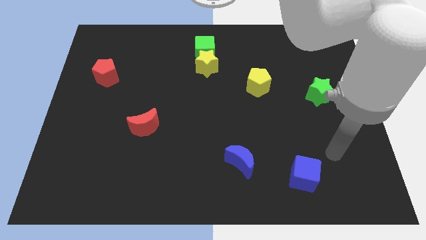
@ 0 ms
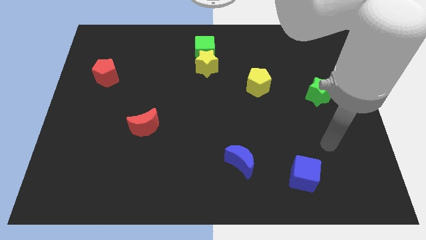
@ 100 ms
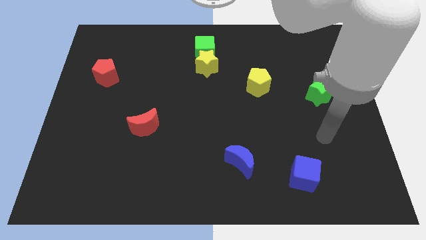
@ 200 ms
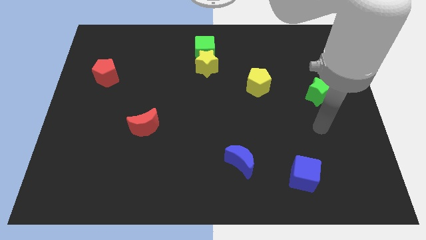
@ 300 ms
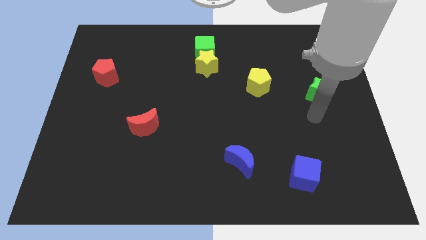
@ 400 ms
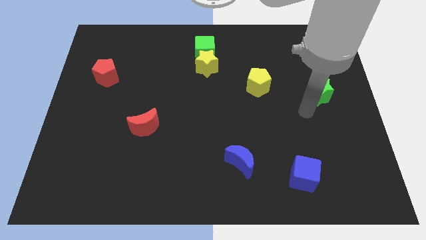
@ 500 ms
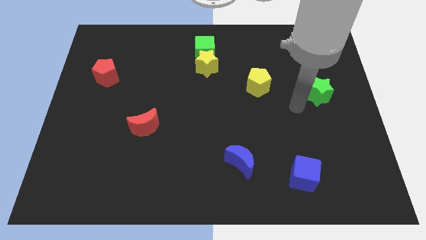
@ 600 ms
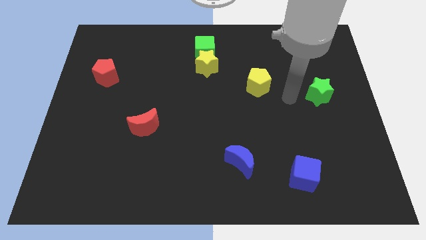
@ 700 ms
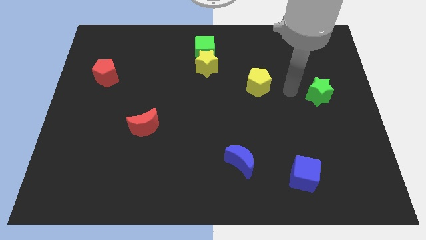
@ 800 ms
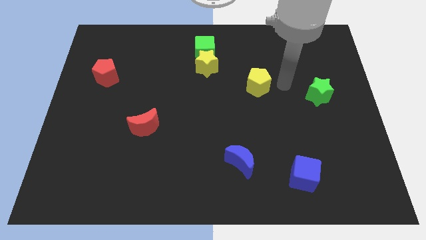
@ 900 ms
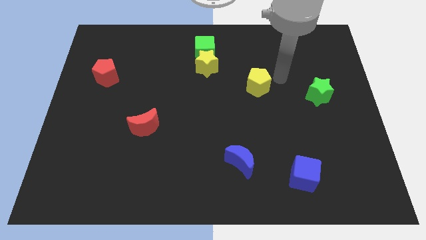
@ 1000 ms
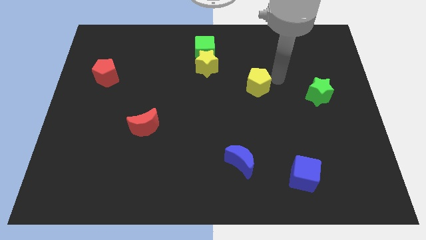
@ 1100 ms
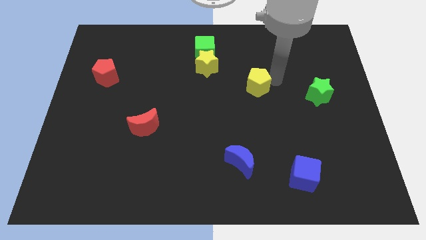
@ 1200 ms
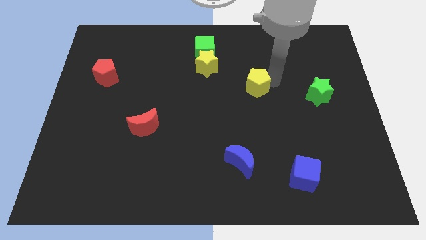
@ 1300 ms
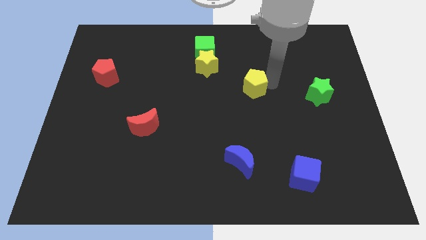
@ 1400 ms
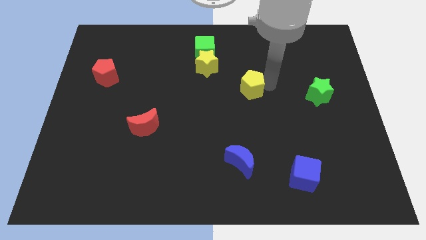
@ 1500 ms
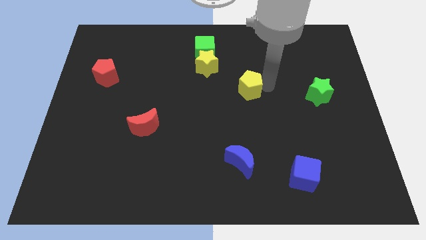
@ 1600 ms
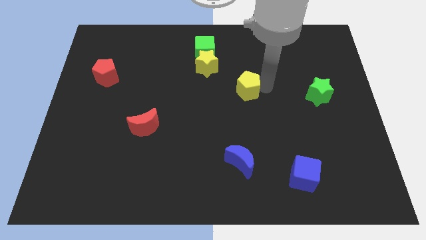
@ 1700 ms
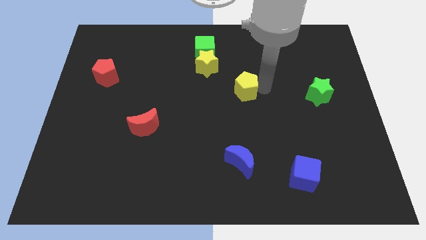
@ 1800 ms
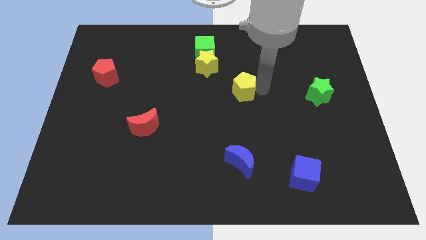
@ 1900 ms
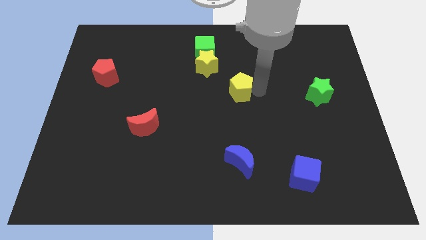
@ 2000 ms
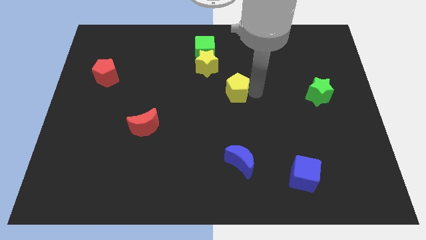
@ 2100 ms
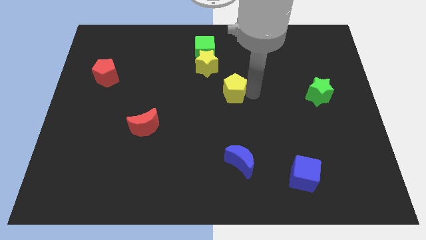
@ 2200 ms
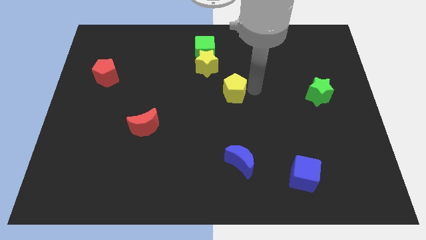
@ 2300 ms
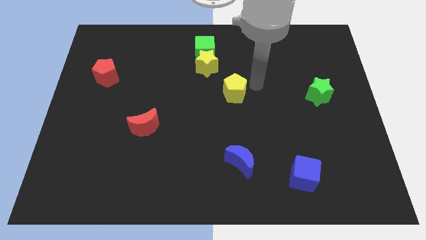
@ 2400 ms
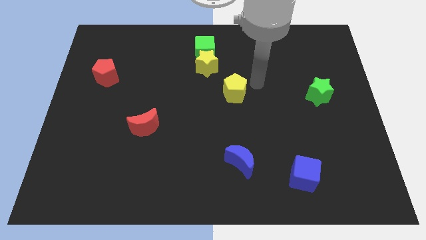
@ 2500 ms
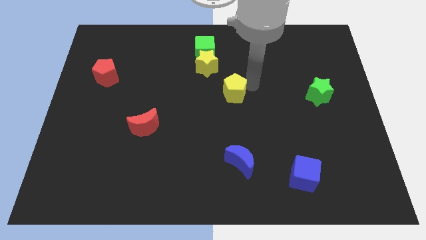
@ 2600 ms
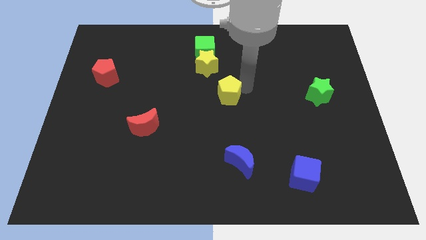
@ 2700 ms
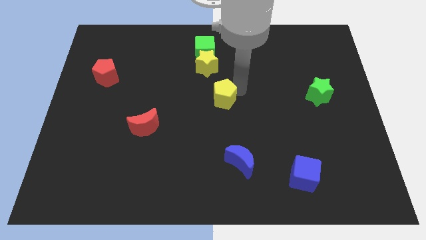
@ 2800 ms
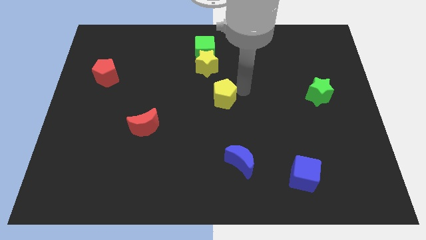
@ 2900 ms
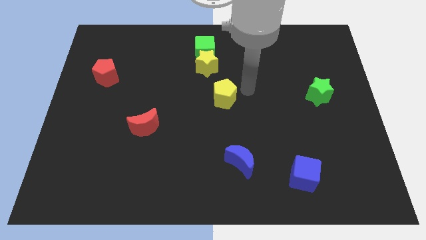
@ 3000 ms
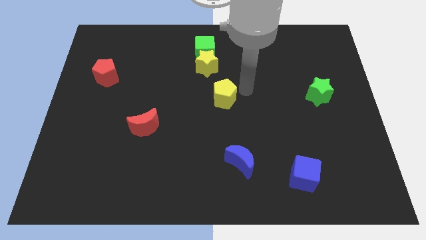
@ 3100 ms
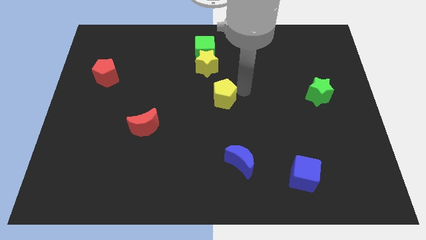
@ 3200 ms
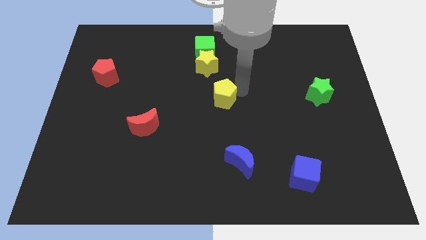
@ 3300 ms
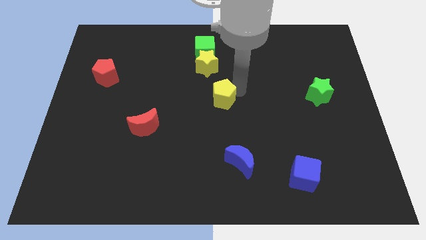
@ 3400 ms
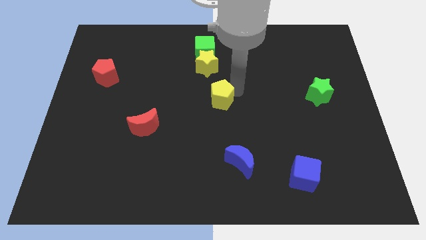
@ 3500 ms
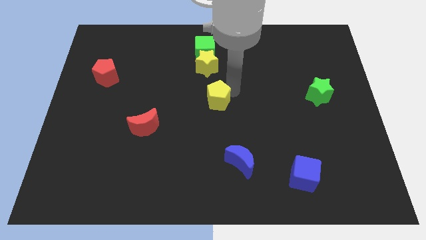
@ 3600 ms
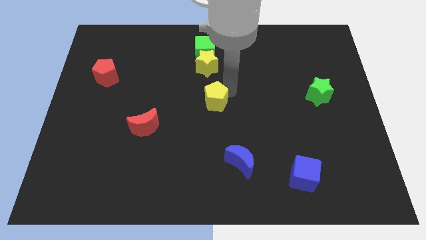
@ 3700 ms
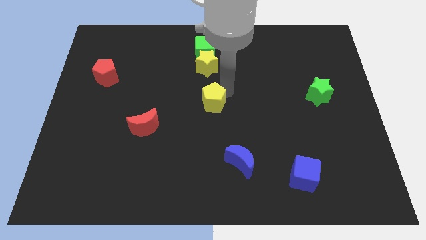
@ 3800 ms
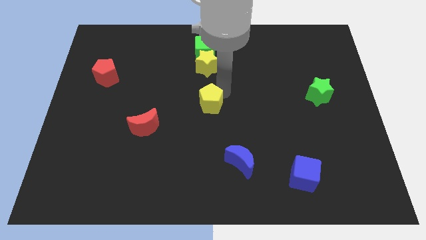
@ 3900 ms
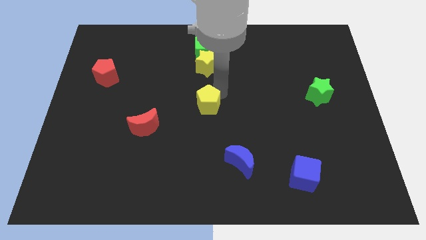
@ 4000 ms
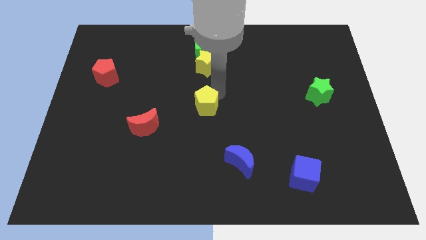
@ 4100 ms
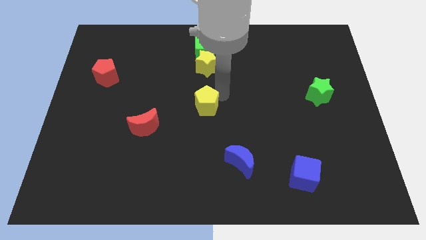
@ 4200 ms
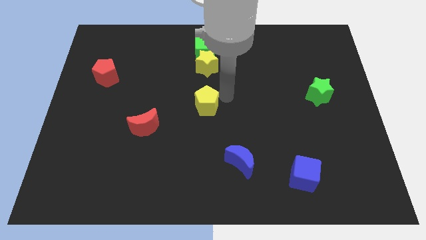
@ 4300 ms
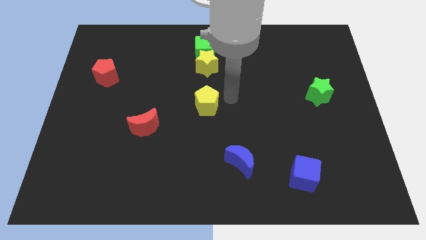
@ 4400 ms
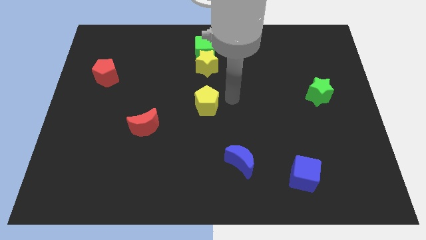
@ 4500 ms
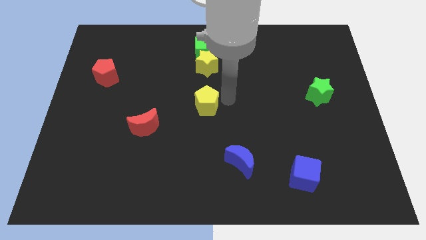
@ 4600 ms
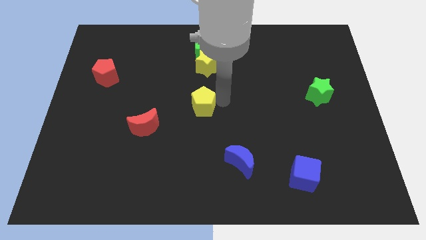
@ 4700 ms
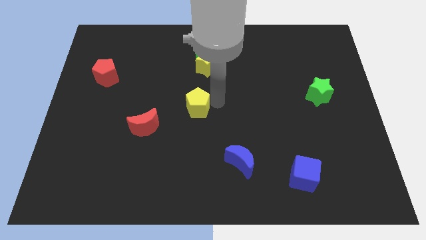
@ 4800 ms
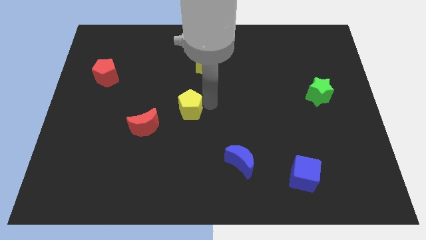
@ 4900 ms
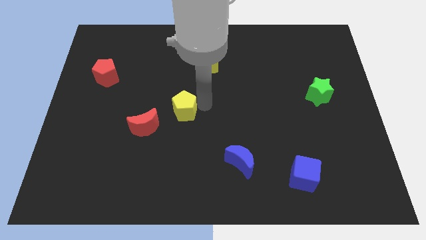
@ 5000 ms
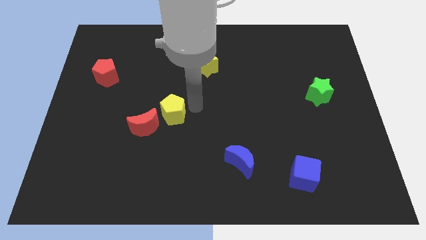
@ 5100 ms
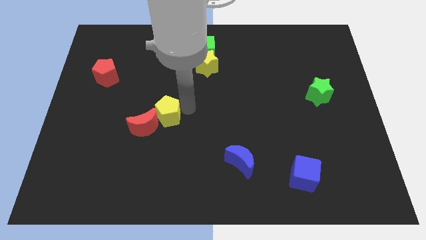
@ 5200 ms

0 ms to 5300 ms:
move the yellow pentagon towards the red moon

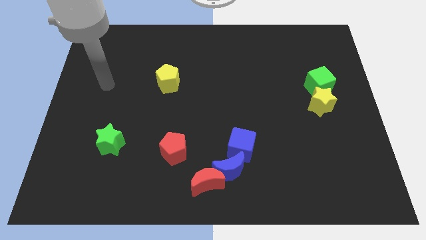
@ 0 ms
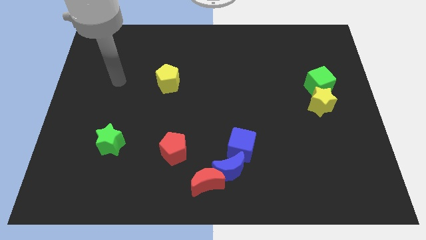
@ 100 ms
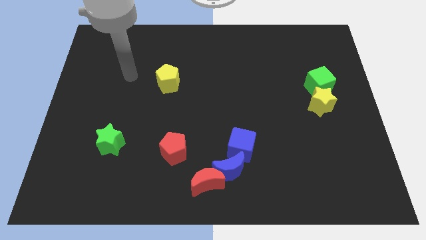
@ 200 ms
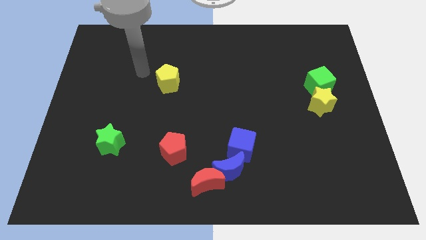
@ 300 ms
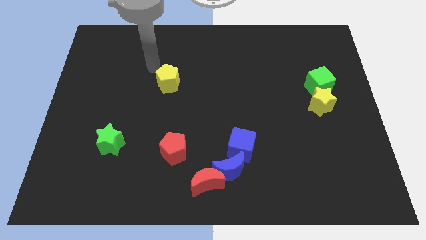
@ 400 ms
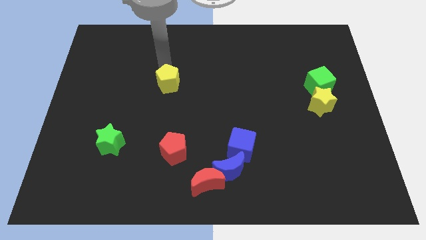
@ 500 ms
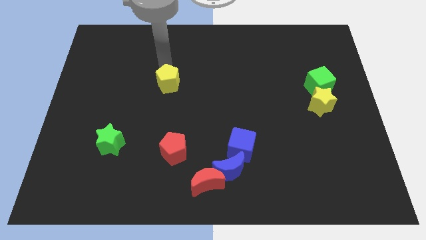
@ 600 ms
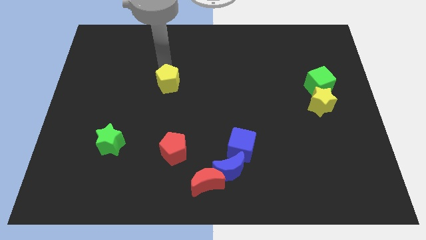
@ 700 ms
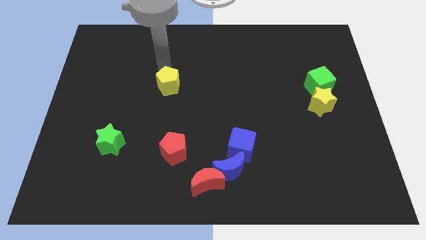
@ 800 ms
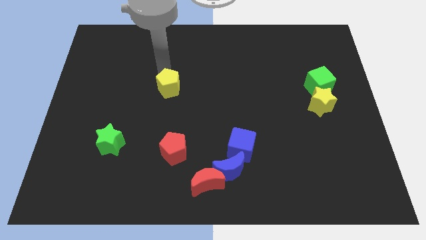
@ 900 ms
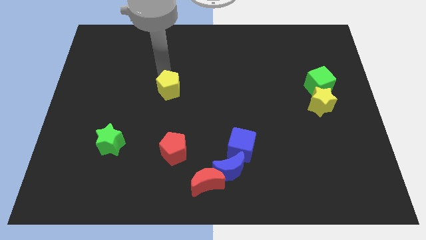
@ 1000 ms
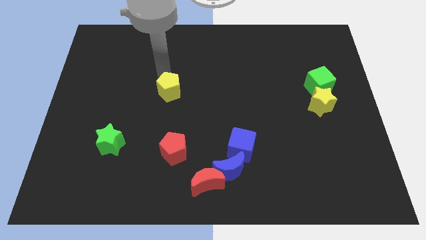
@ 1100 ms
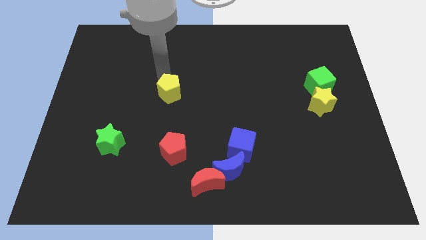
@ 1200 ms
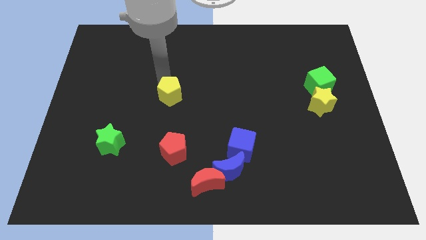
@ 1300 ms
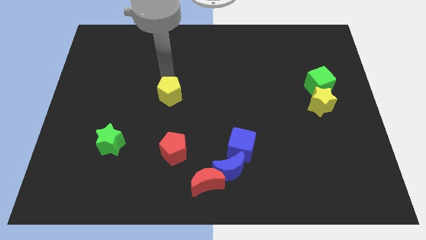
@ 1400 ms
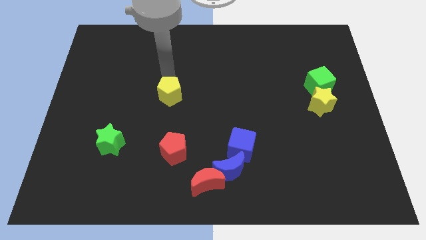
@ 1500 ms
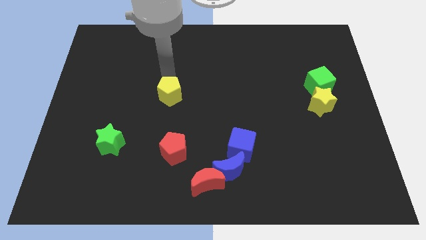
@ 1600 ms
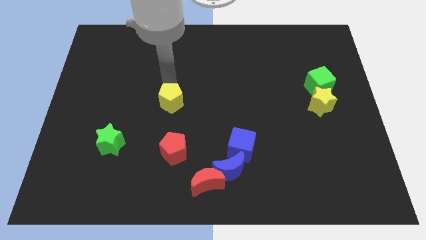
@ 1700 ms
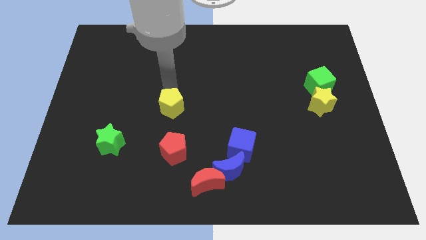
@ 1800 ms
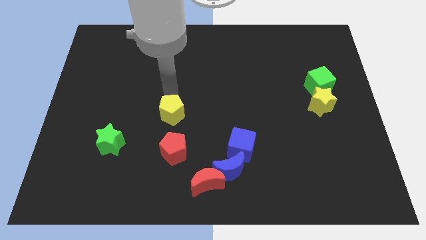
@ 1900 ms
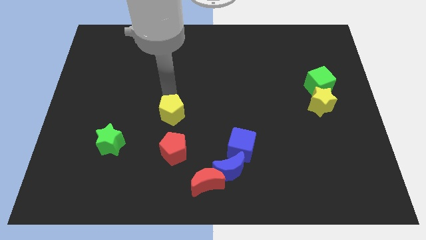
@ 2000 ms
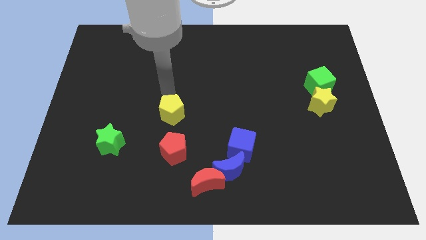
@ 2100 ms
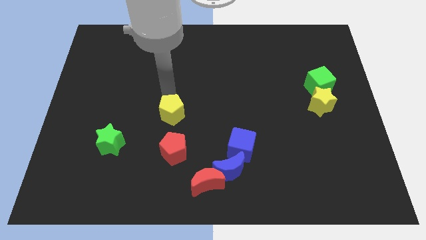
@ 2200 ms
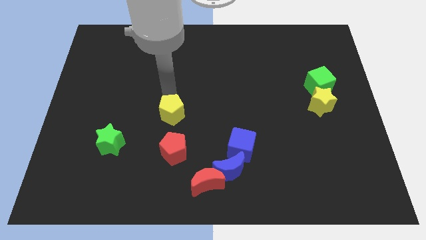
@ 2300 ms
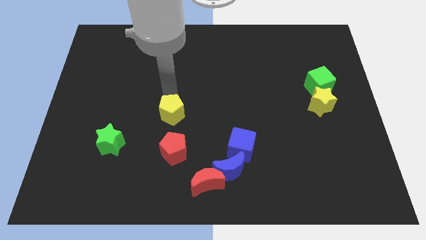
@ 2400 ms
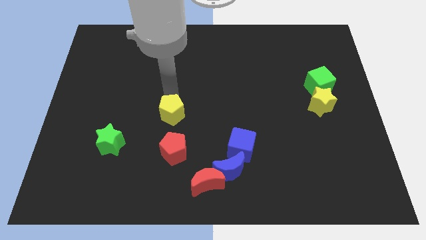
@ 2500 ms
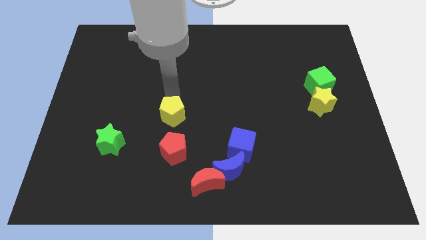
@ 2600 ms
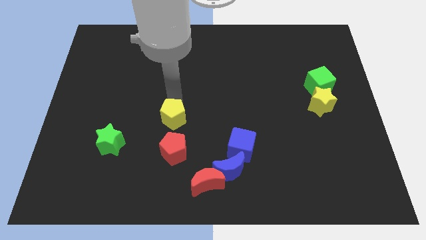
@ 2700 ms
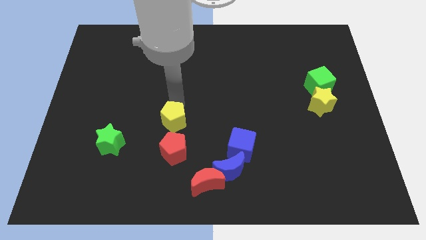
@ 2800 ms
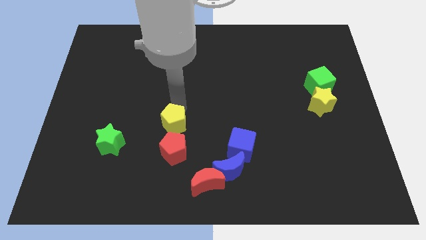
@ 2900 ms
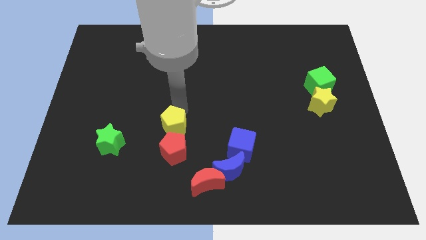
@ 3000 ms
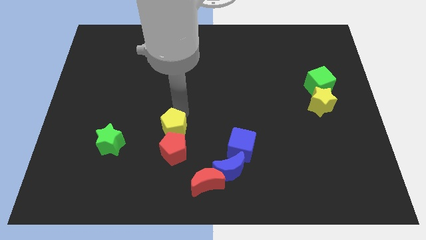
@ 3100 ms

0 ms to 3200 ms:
put the yellow pentagon towards the red pentagon
